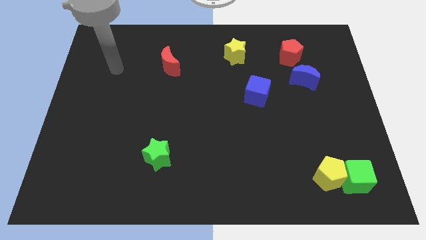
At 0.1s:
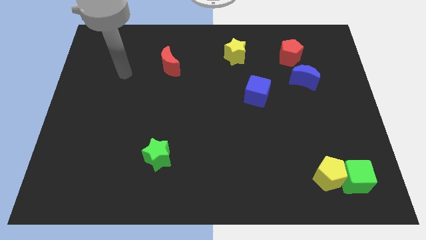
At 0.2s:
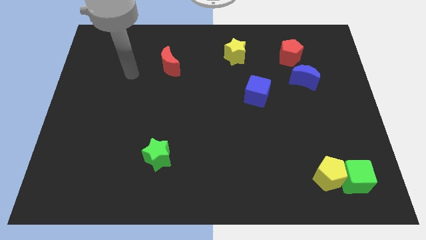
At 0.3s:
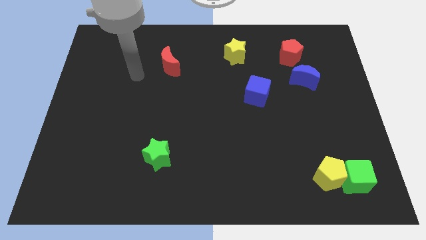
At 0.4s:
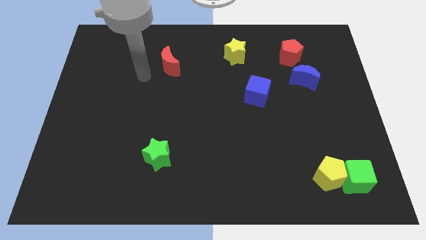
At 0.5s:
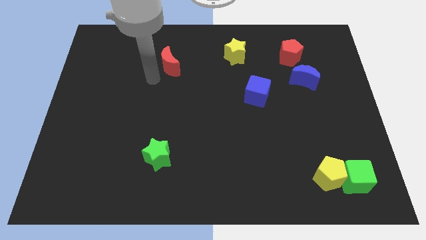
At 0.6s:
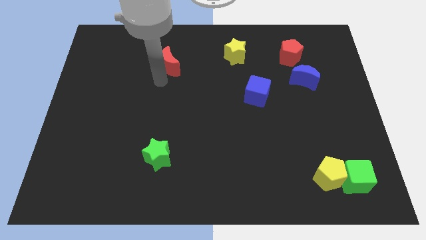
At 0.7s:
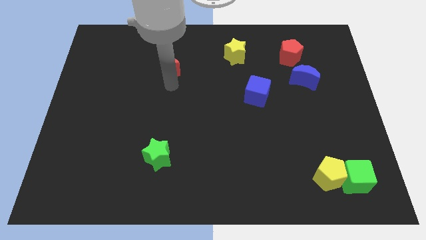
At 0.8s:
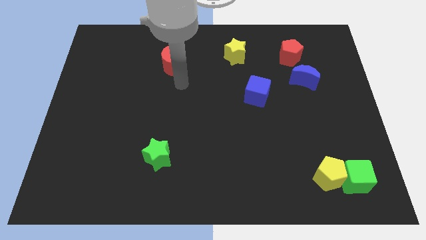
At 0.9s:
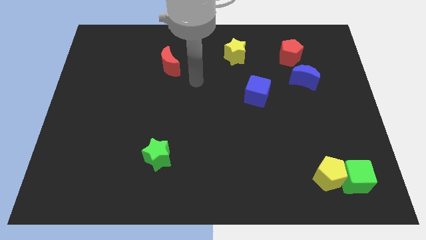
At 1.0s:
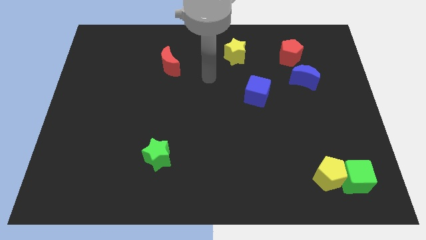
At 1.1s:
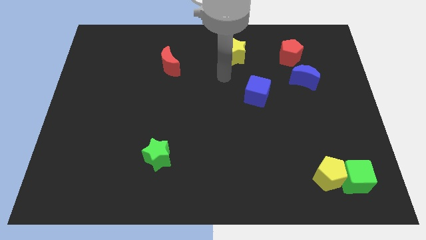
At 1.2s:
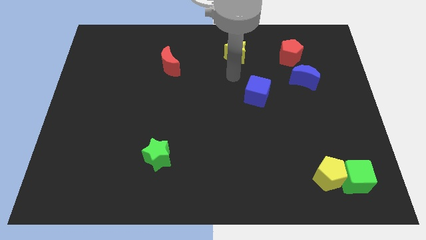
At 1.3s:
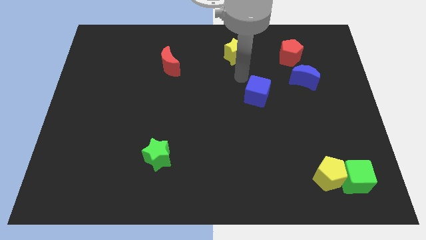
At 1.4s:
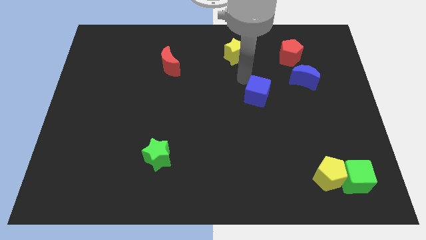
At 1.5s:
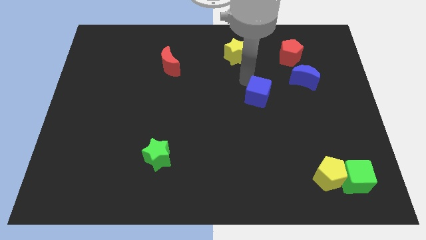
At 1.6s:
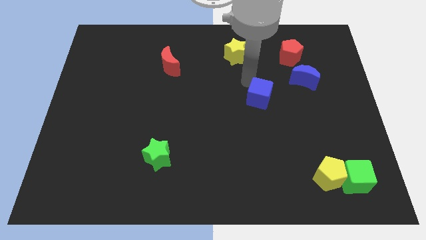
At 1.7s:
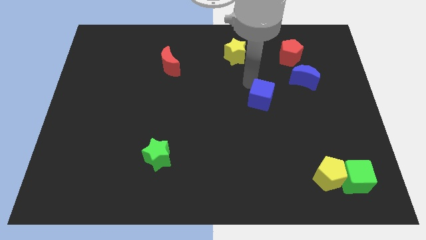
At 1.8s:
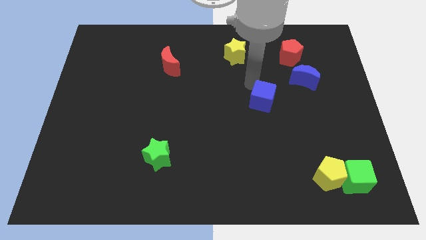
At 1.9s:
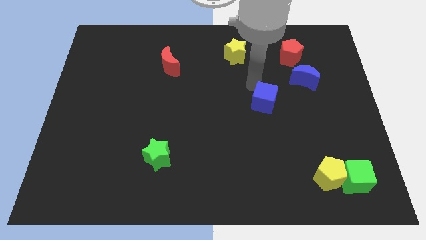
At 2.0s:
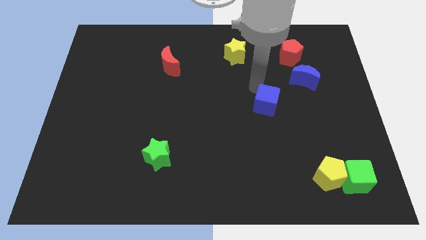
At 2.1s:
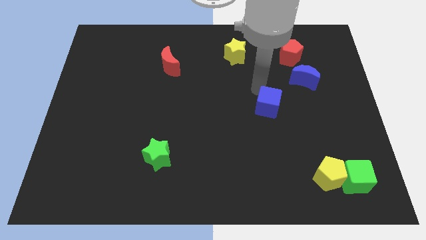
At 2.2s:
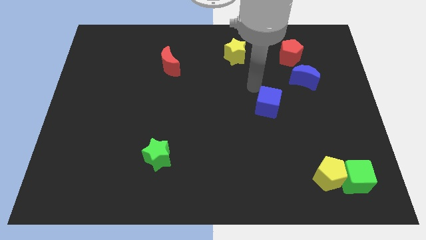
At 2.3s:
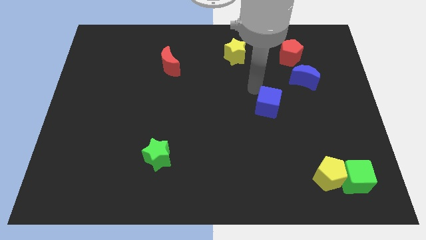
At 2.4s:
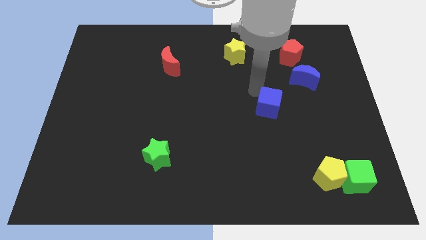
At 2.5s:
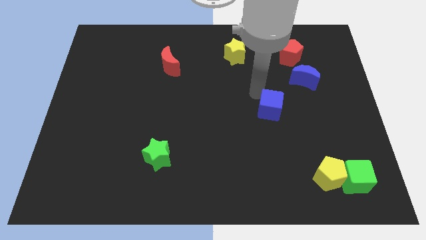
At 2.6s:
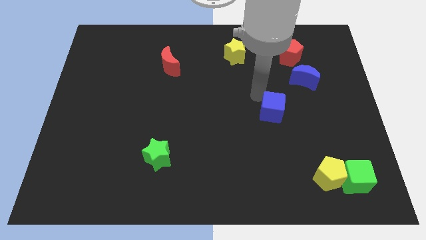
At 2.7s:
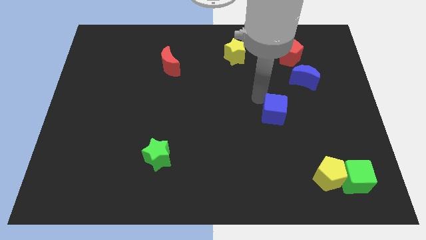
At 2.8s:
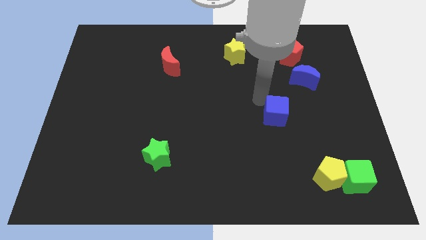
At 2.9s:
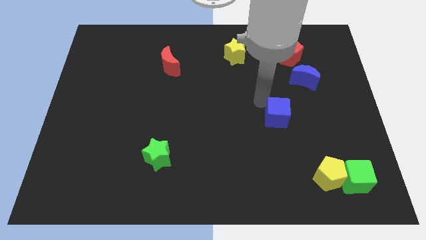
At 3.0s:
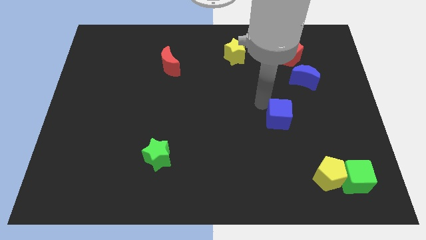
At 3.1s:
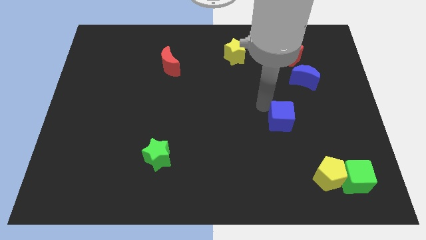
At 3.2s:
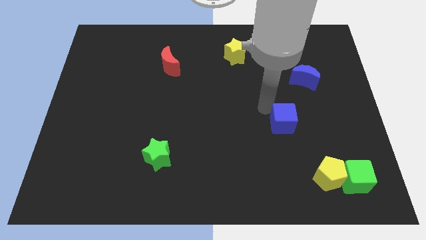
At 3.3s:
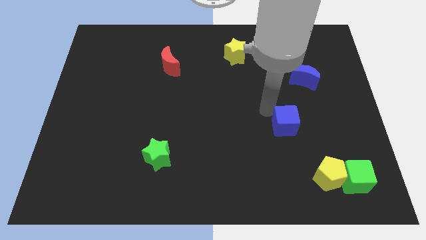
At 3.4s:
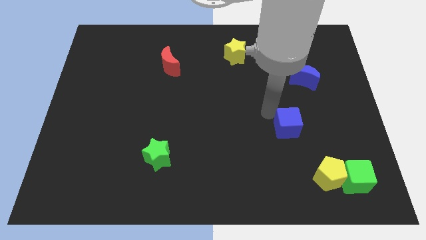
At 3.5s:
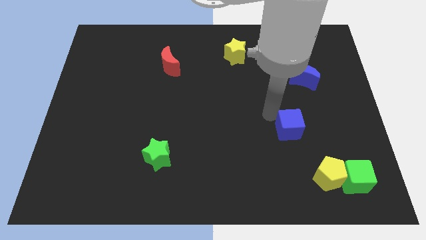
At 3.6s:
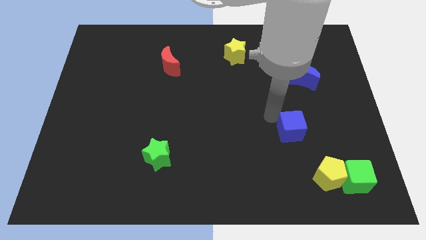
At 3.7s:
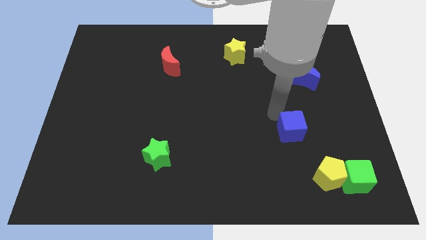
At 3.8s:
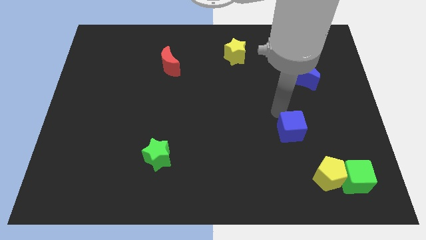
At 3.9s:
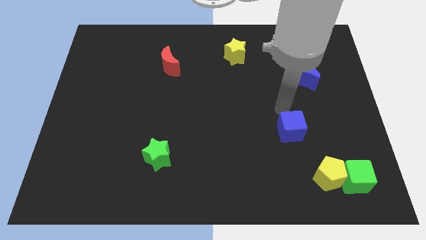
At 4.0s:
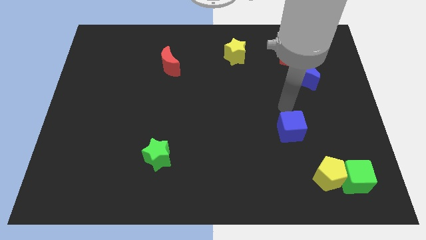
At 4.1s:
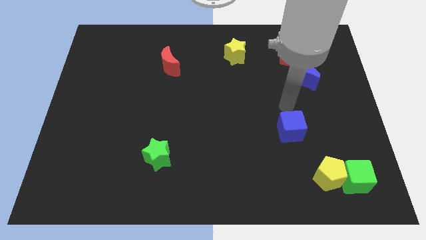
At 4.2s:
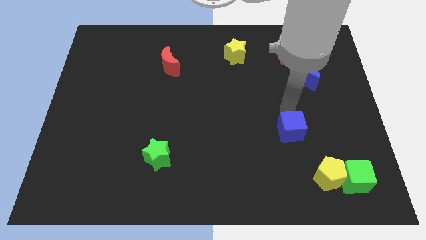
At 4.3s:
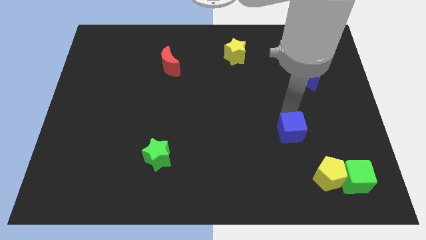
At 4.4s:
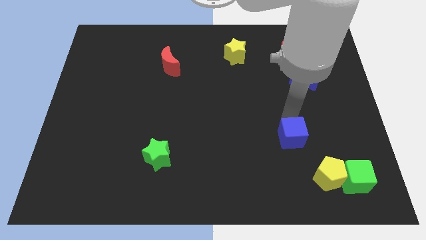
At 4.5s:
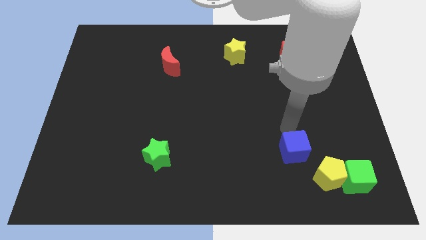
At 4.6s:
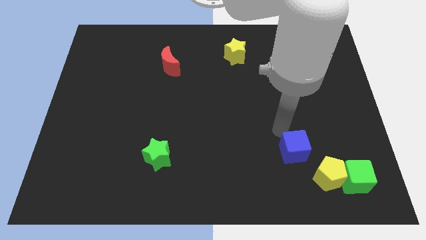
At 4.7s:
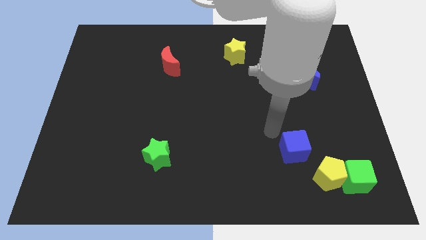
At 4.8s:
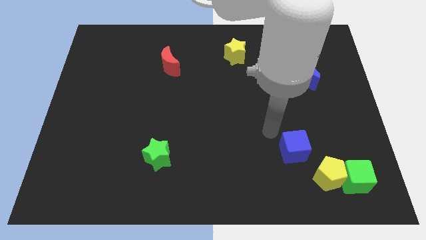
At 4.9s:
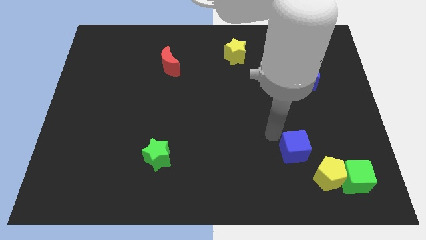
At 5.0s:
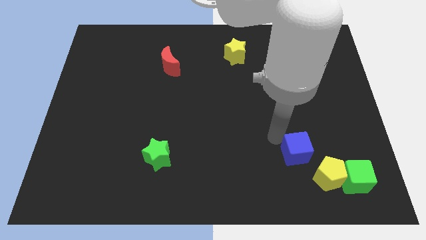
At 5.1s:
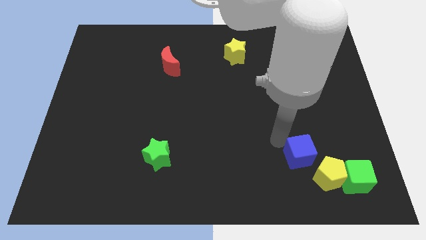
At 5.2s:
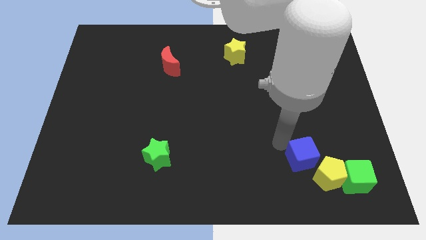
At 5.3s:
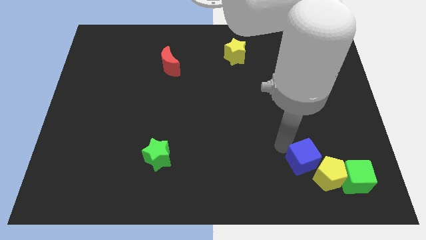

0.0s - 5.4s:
move the blue cube close to the yellow pentagon

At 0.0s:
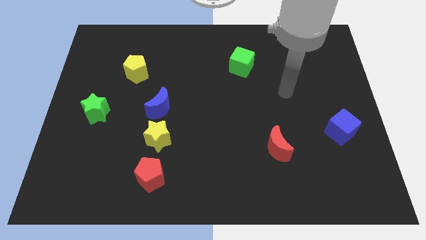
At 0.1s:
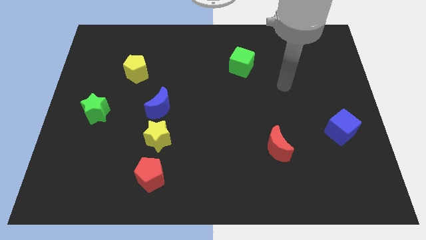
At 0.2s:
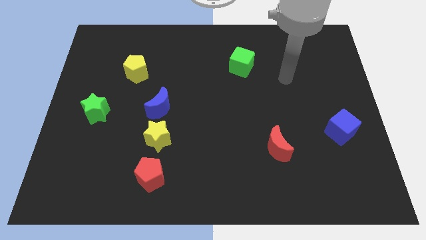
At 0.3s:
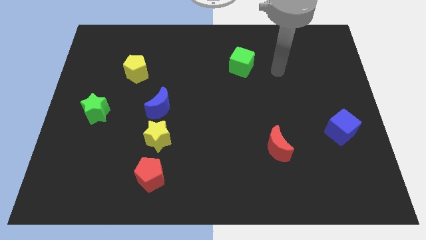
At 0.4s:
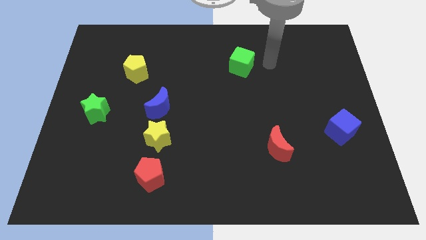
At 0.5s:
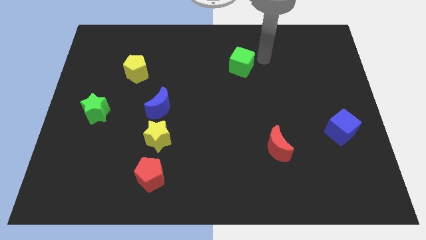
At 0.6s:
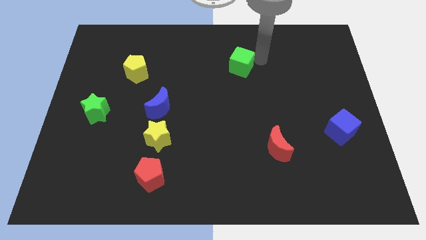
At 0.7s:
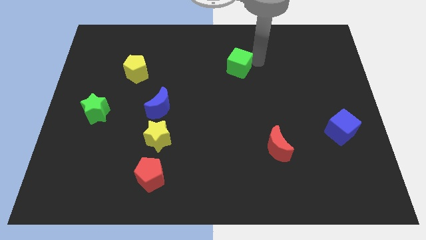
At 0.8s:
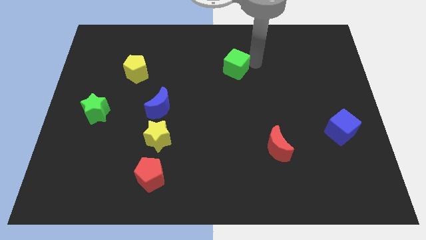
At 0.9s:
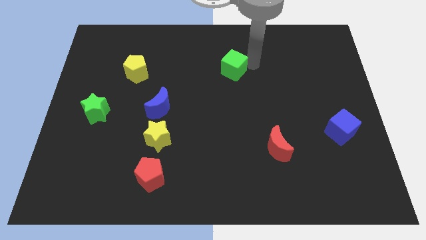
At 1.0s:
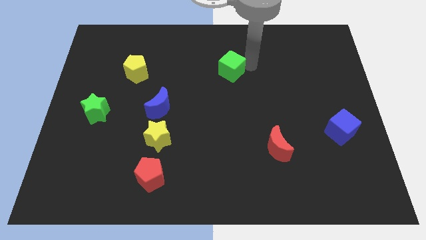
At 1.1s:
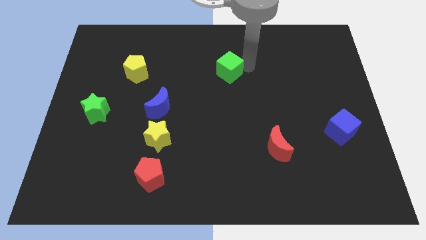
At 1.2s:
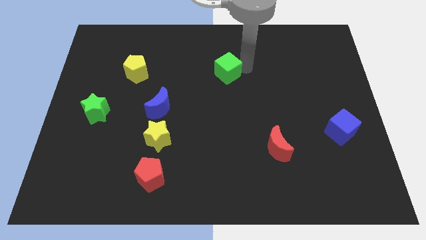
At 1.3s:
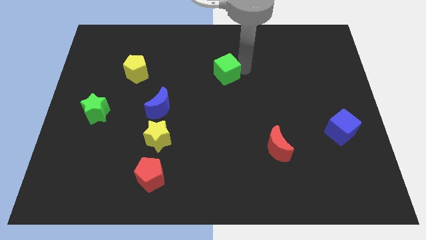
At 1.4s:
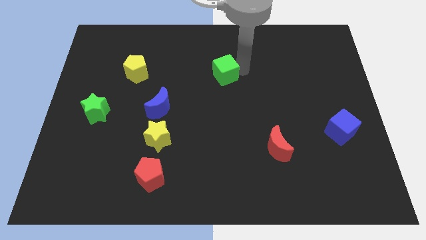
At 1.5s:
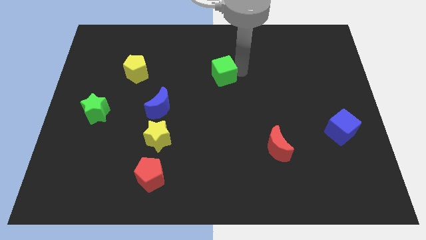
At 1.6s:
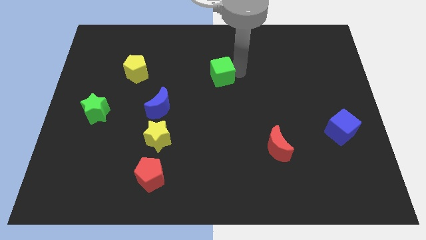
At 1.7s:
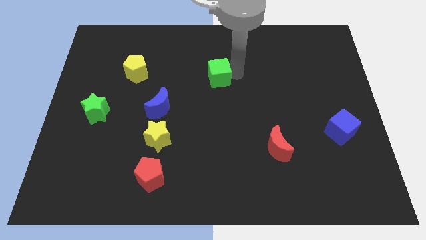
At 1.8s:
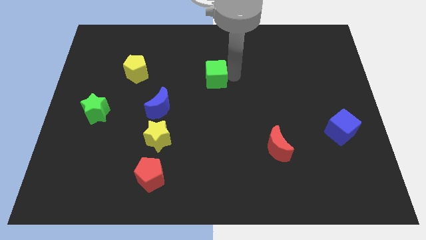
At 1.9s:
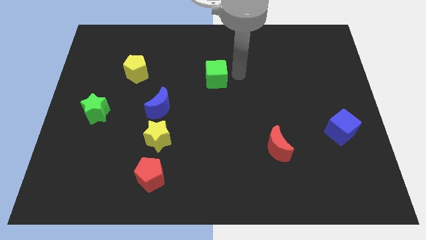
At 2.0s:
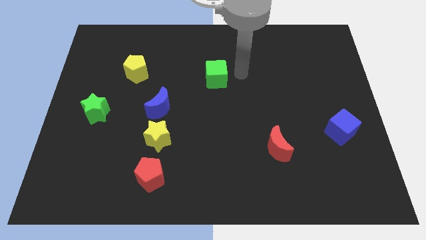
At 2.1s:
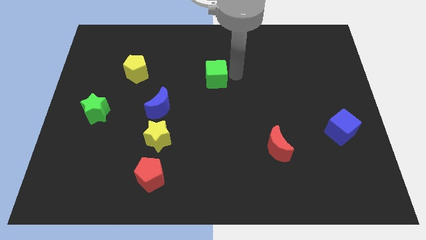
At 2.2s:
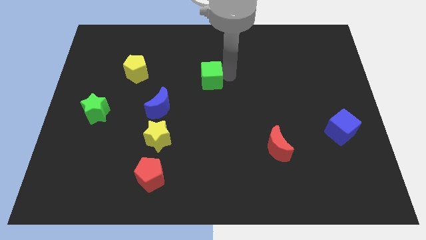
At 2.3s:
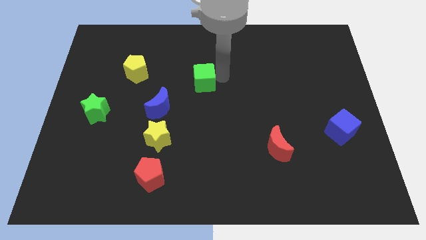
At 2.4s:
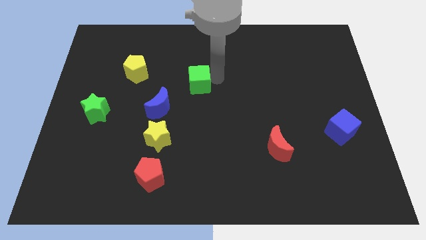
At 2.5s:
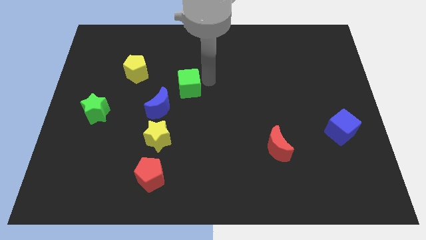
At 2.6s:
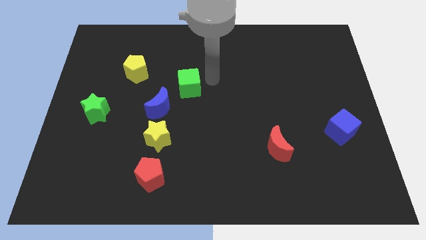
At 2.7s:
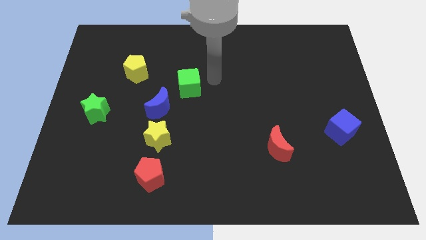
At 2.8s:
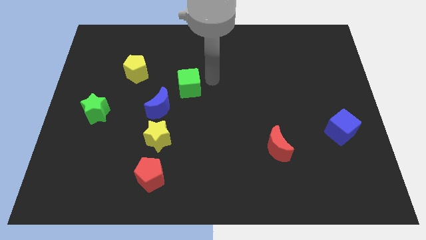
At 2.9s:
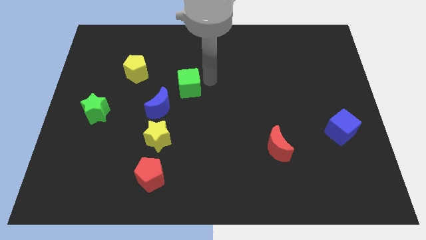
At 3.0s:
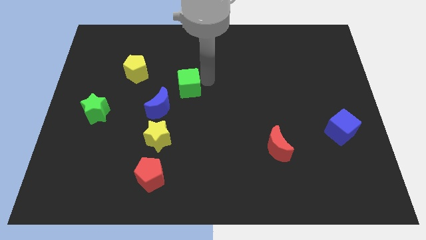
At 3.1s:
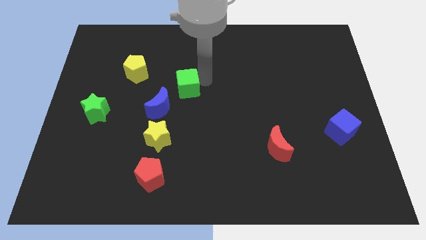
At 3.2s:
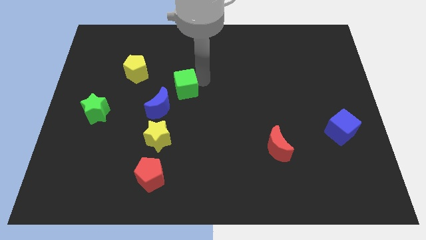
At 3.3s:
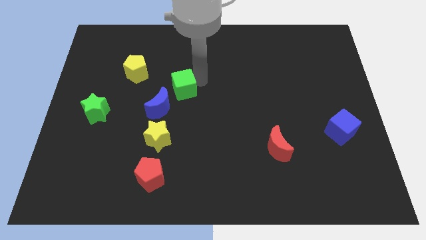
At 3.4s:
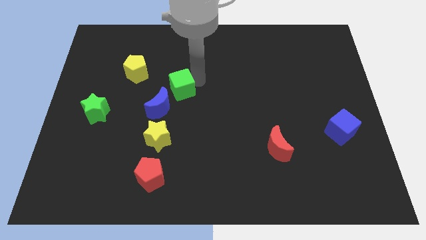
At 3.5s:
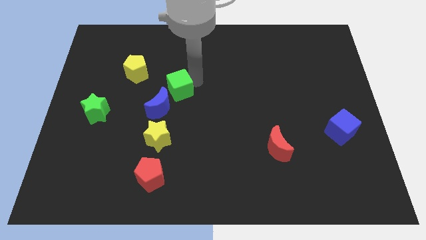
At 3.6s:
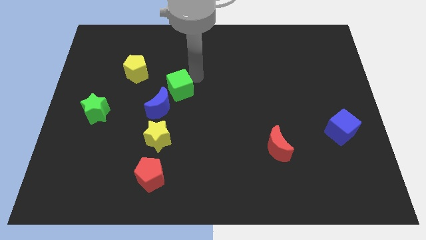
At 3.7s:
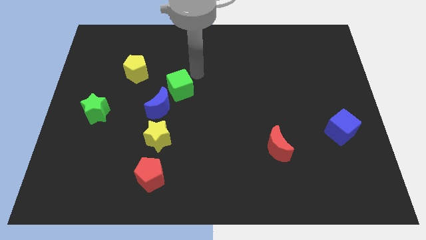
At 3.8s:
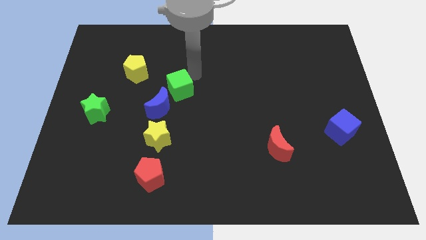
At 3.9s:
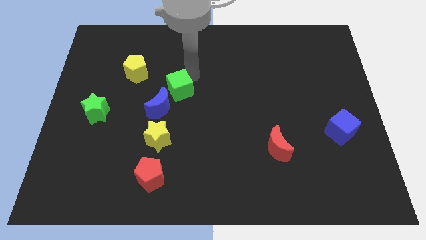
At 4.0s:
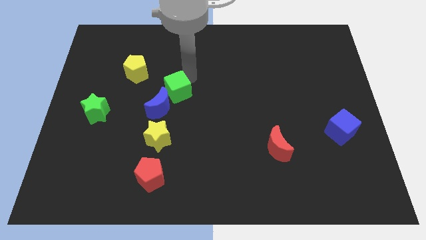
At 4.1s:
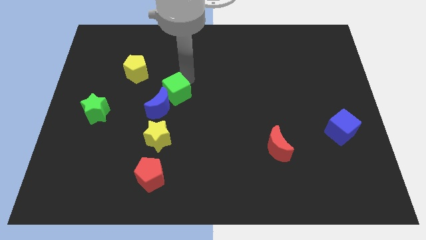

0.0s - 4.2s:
push the green cube towards the blue moon
